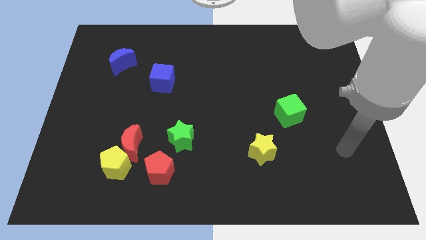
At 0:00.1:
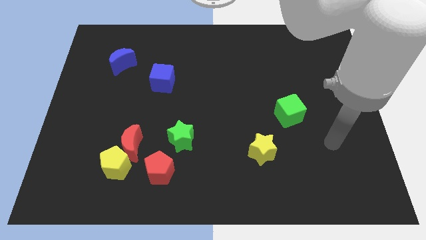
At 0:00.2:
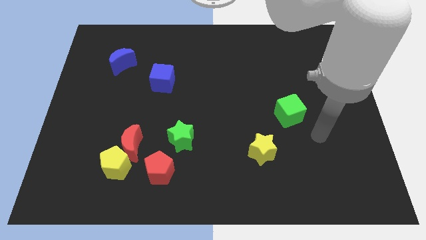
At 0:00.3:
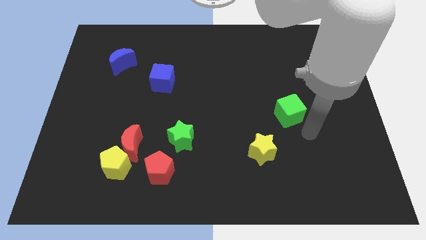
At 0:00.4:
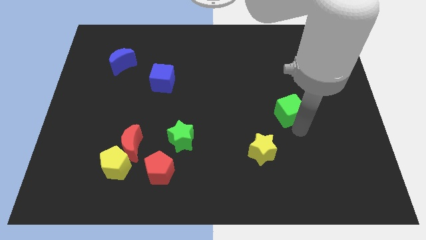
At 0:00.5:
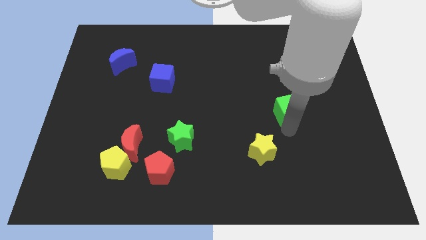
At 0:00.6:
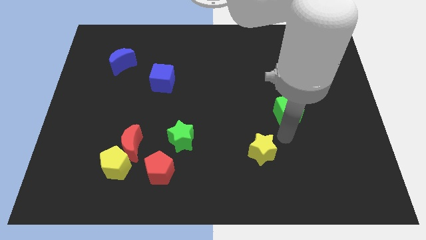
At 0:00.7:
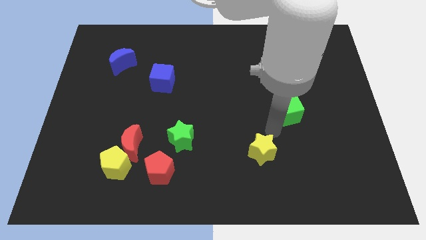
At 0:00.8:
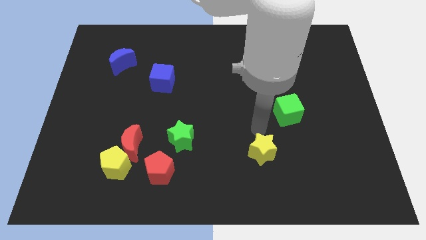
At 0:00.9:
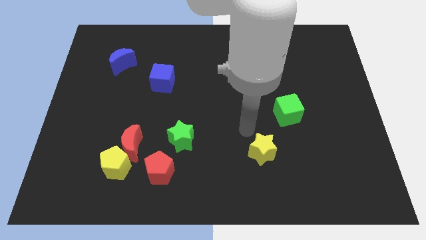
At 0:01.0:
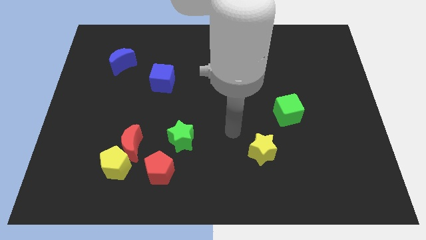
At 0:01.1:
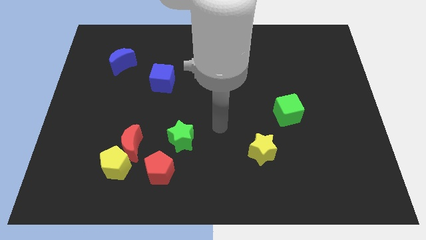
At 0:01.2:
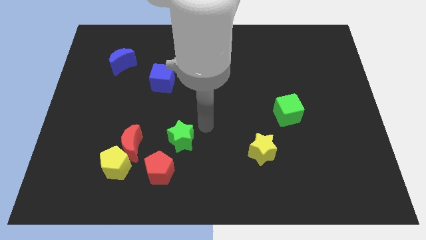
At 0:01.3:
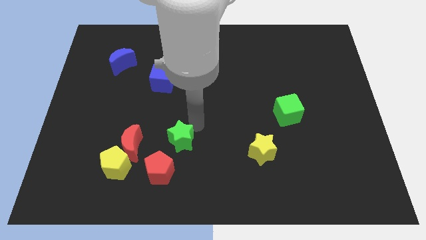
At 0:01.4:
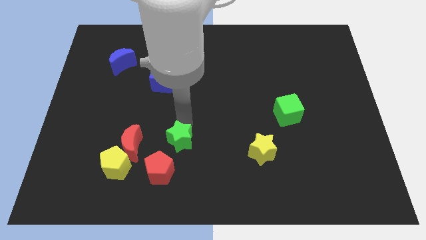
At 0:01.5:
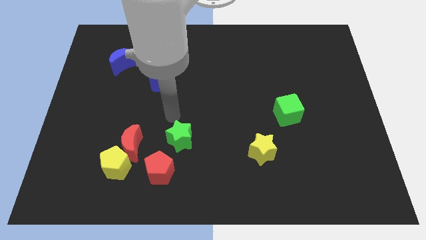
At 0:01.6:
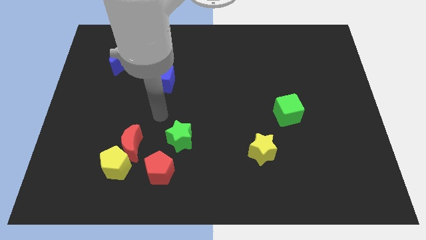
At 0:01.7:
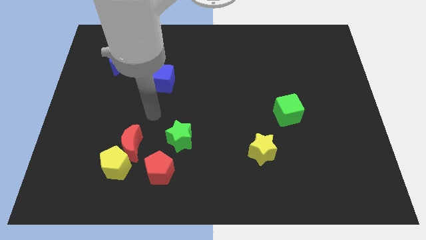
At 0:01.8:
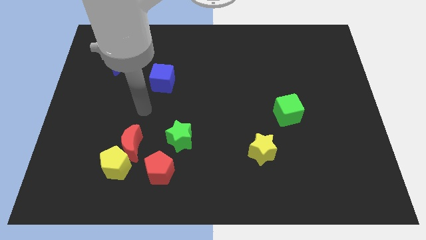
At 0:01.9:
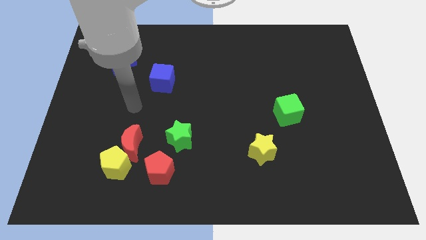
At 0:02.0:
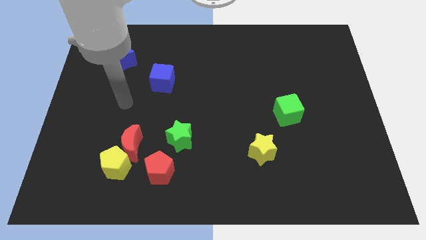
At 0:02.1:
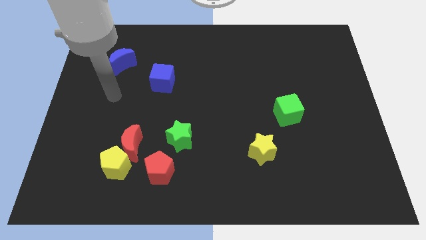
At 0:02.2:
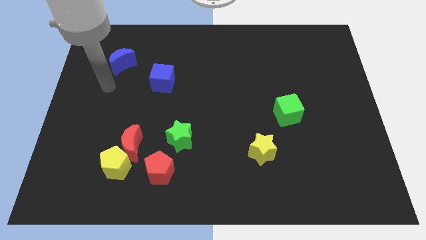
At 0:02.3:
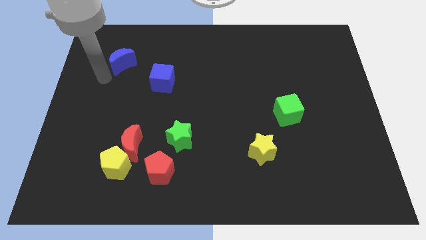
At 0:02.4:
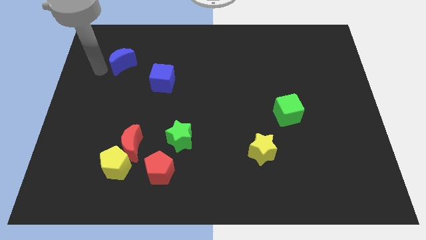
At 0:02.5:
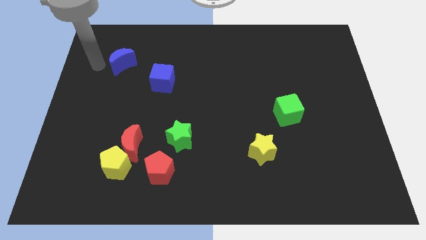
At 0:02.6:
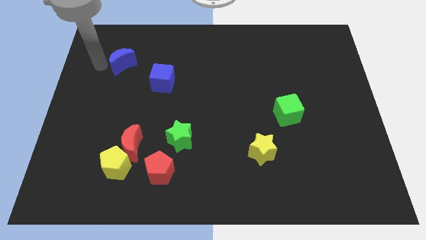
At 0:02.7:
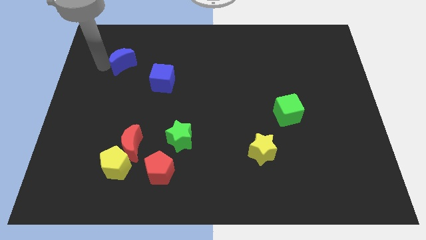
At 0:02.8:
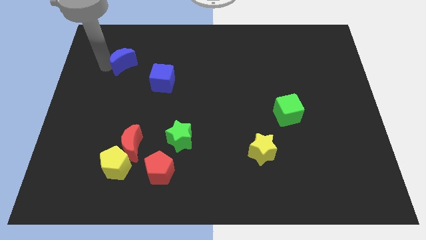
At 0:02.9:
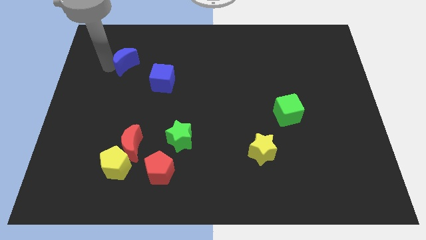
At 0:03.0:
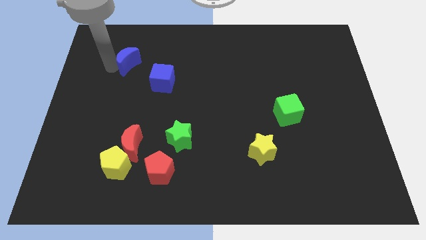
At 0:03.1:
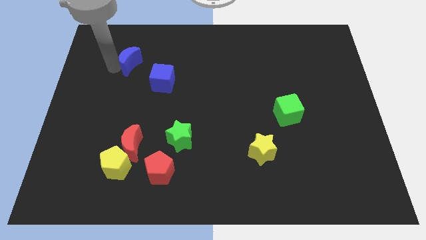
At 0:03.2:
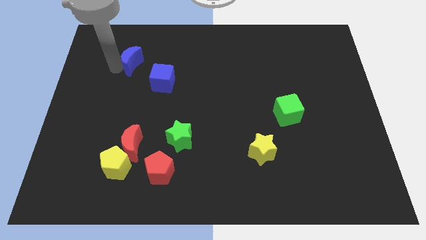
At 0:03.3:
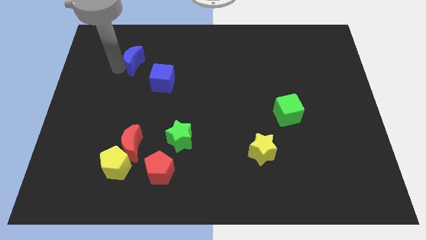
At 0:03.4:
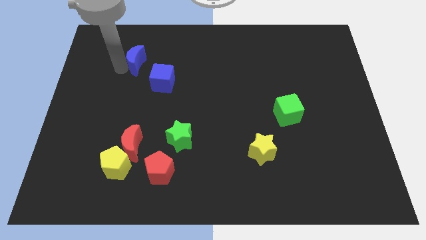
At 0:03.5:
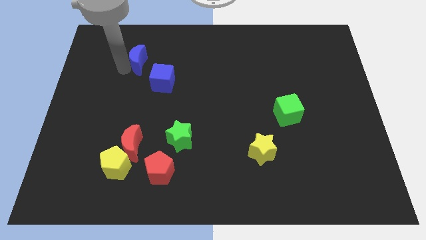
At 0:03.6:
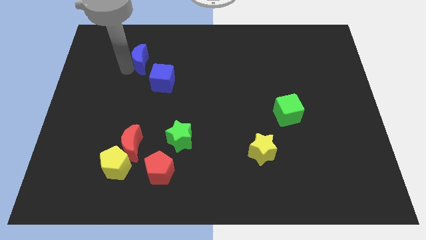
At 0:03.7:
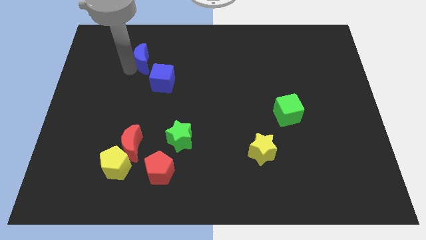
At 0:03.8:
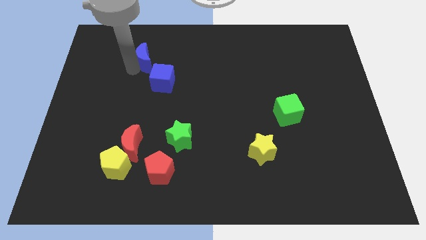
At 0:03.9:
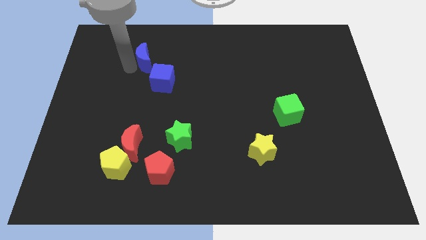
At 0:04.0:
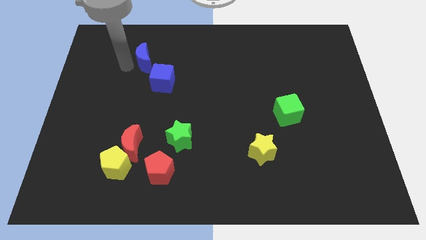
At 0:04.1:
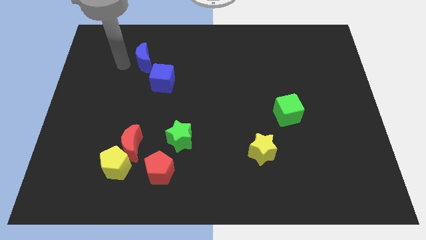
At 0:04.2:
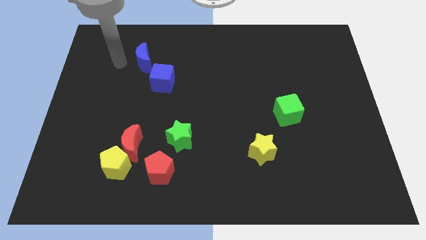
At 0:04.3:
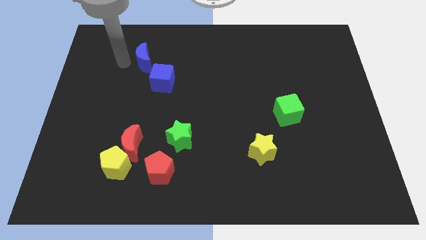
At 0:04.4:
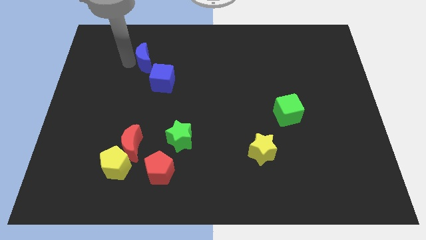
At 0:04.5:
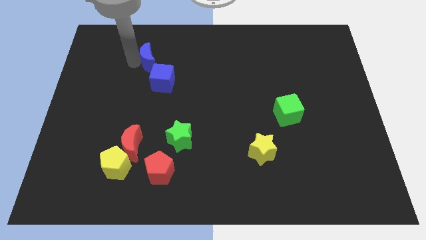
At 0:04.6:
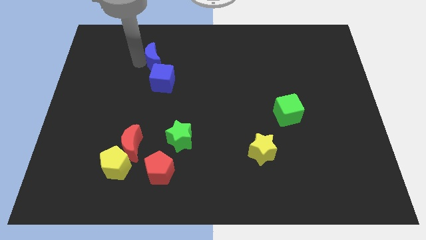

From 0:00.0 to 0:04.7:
slightly slide the blue moon right

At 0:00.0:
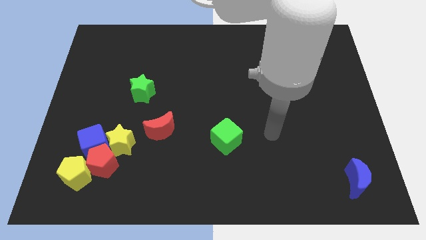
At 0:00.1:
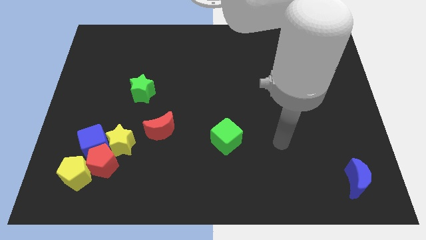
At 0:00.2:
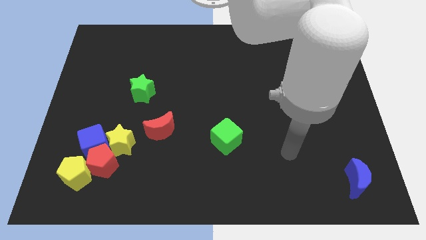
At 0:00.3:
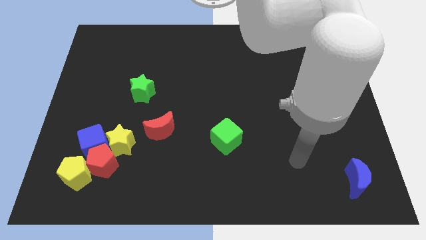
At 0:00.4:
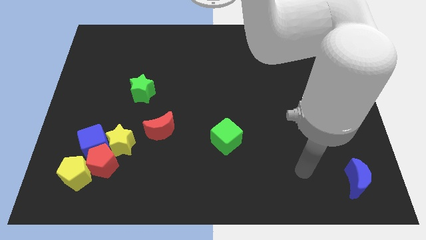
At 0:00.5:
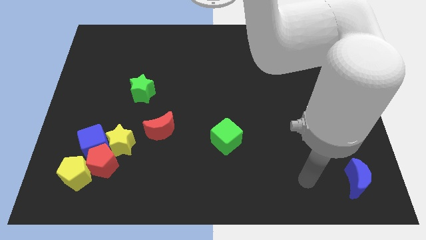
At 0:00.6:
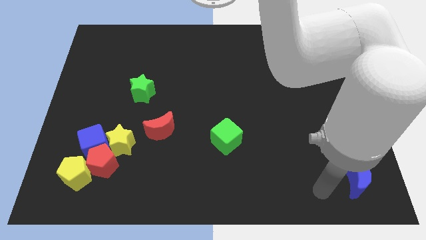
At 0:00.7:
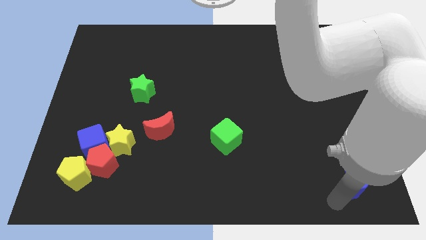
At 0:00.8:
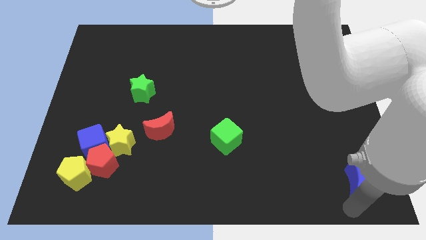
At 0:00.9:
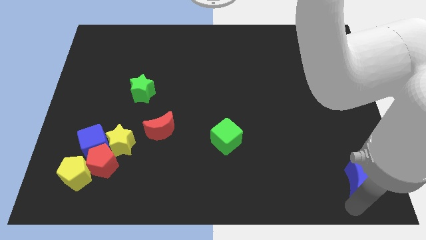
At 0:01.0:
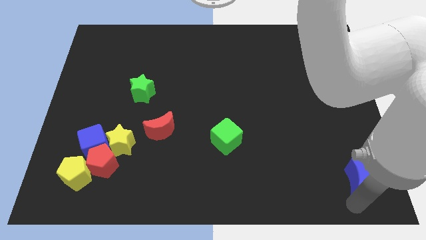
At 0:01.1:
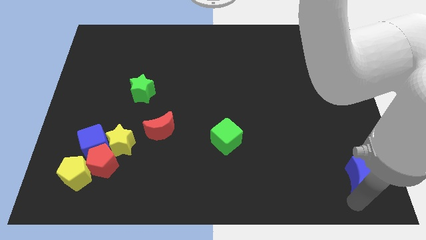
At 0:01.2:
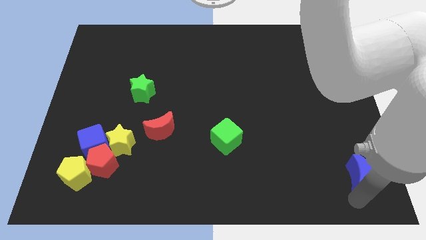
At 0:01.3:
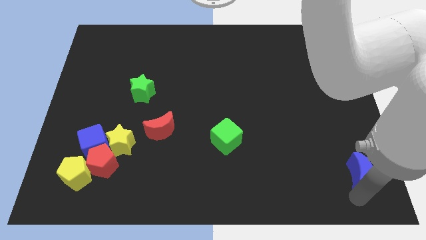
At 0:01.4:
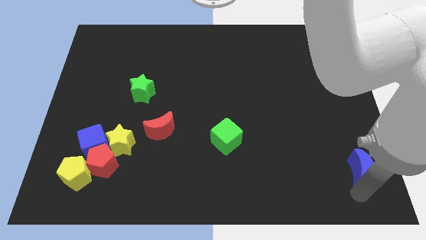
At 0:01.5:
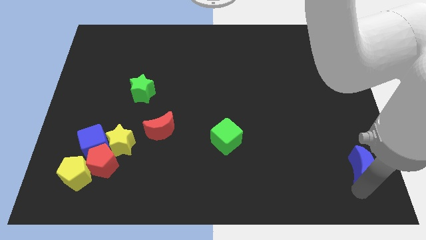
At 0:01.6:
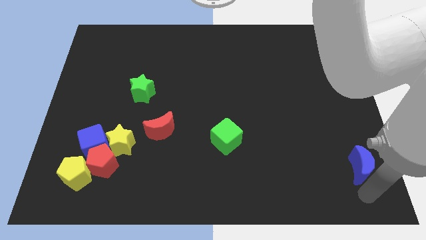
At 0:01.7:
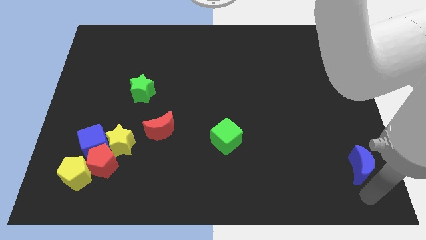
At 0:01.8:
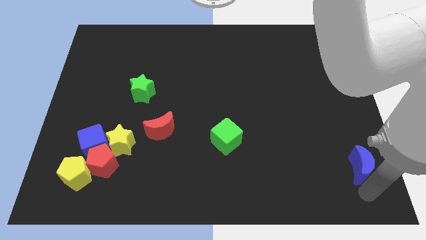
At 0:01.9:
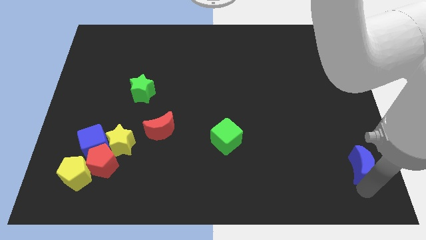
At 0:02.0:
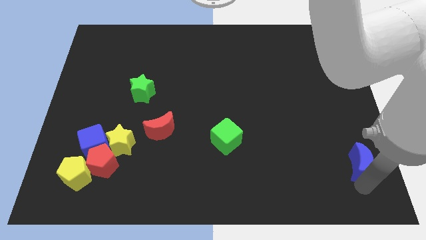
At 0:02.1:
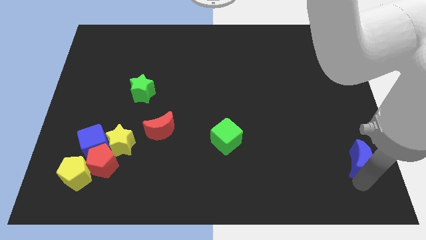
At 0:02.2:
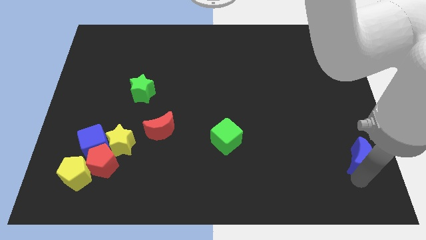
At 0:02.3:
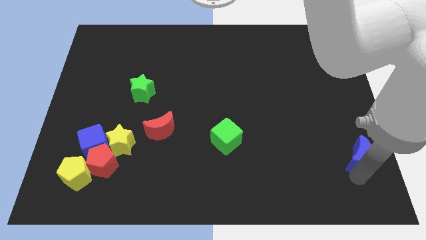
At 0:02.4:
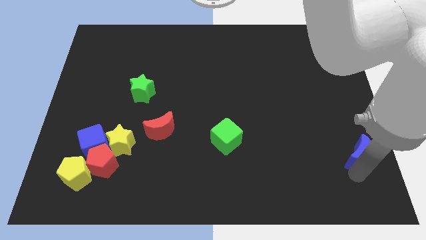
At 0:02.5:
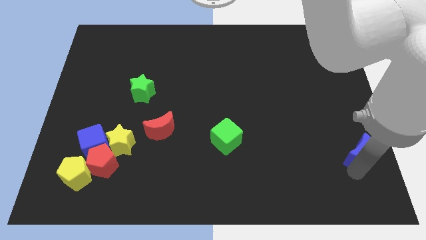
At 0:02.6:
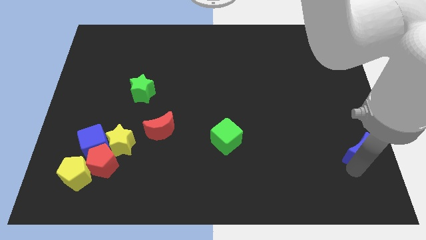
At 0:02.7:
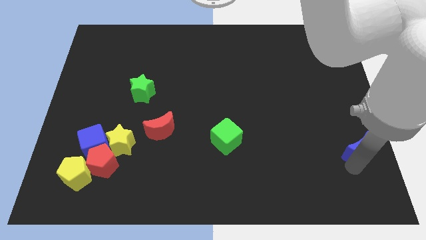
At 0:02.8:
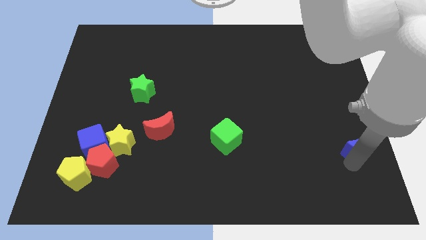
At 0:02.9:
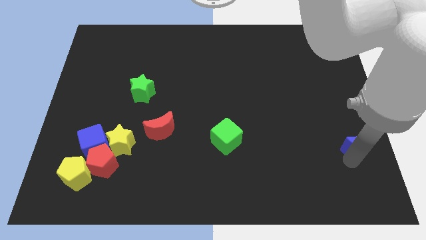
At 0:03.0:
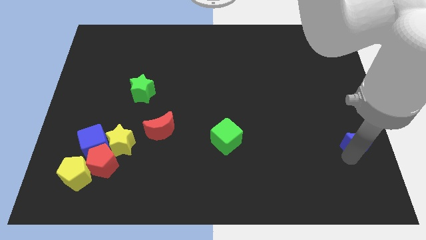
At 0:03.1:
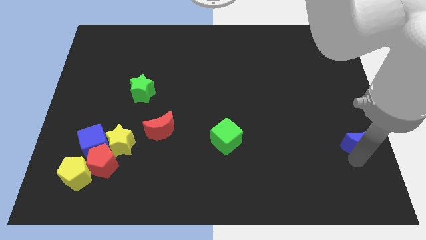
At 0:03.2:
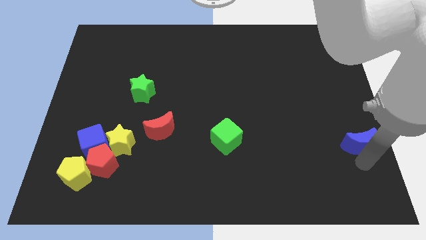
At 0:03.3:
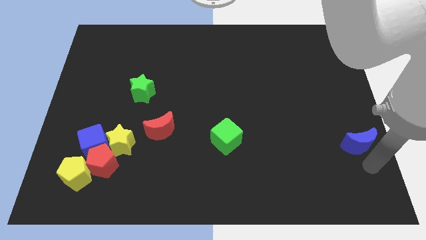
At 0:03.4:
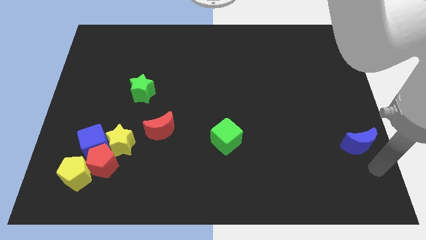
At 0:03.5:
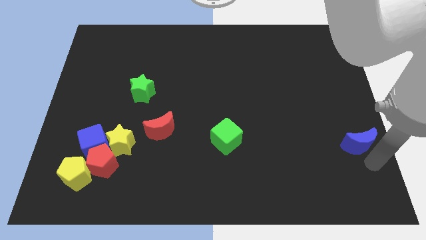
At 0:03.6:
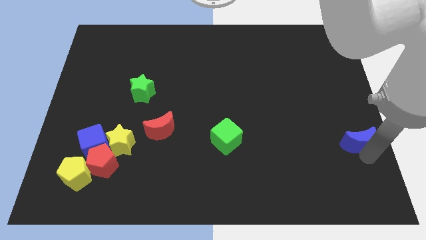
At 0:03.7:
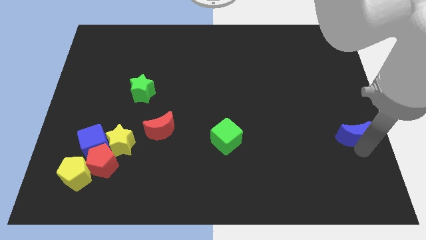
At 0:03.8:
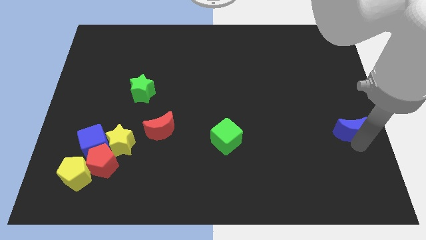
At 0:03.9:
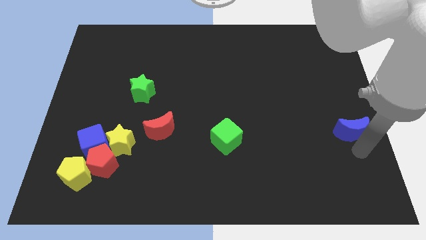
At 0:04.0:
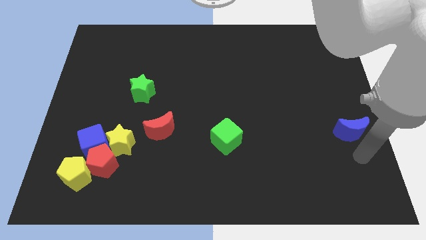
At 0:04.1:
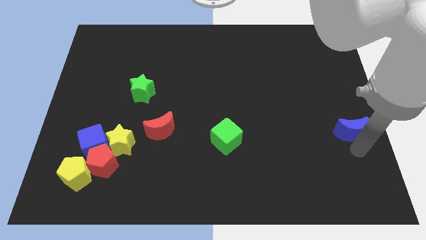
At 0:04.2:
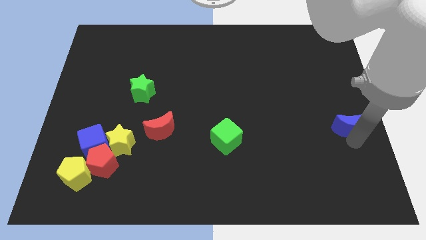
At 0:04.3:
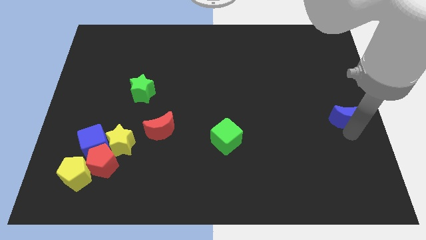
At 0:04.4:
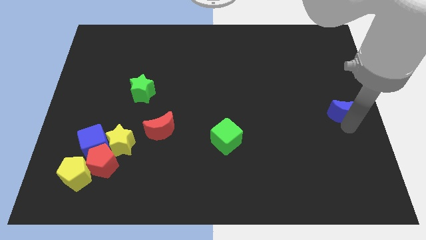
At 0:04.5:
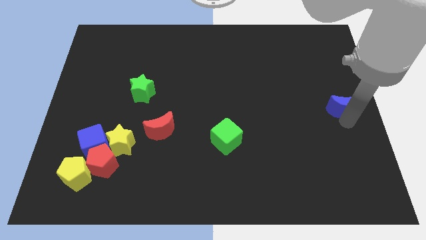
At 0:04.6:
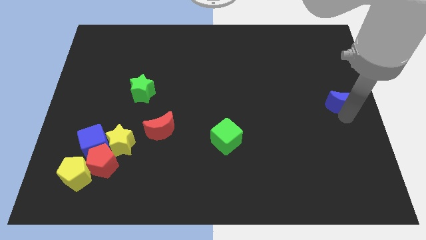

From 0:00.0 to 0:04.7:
slide the blue moon upwards
